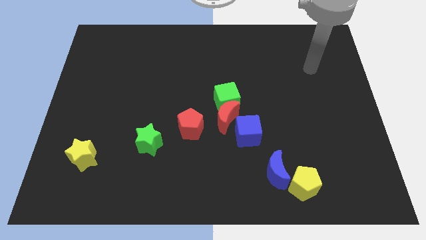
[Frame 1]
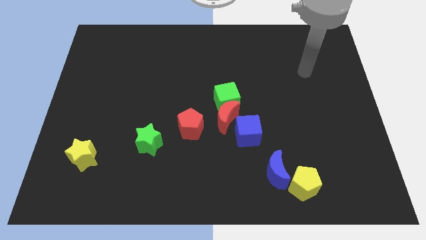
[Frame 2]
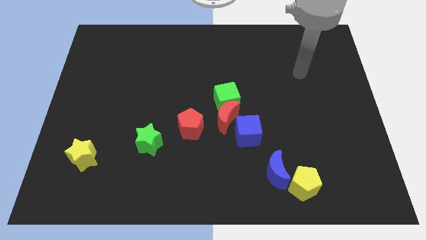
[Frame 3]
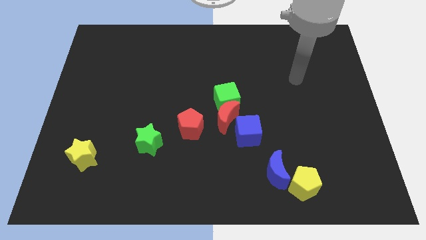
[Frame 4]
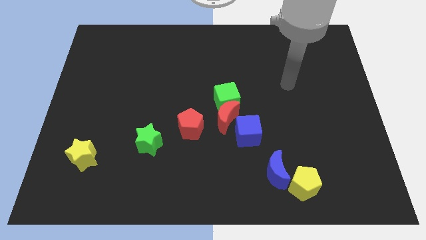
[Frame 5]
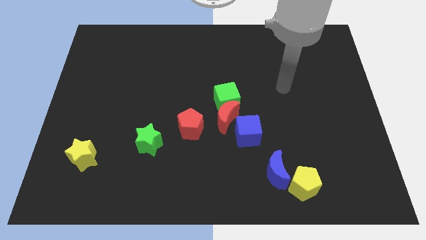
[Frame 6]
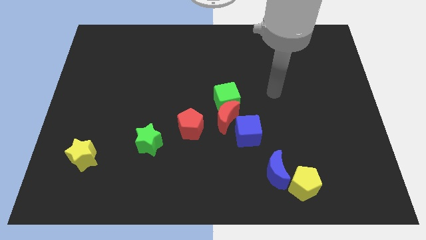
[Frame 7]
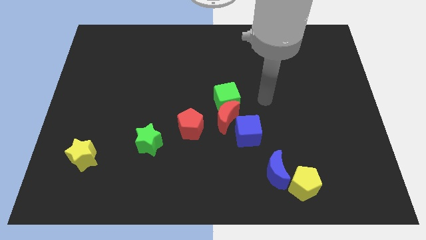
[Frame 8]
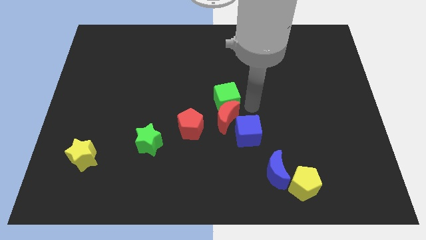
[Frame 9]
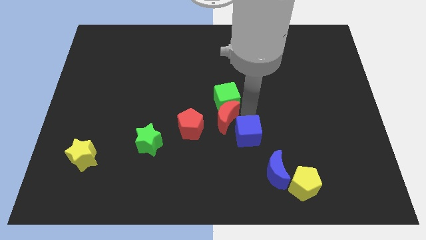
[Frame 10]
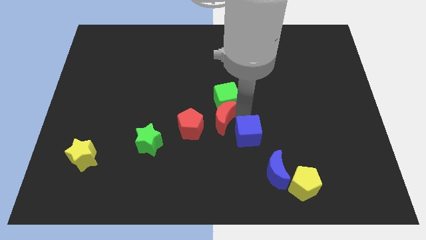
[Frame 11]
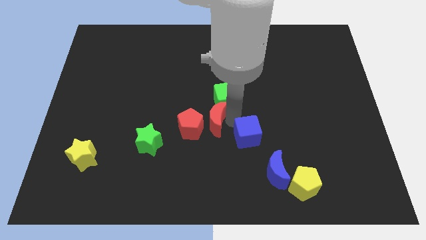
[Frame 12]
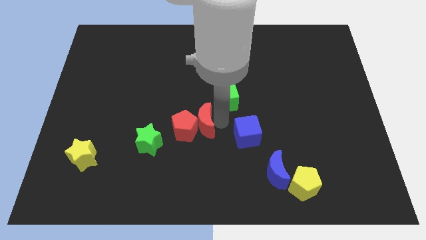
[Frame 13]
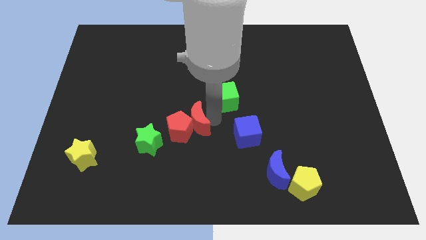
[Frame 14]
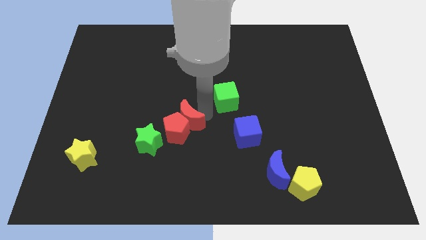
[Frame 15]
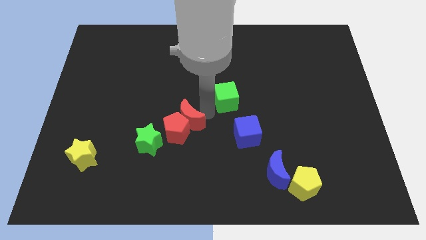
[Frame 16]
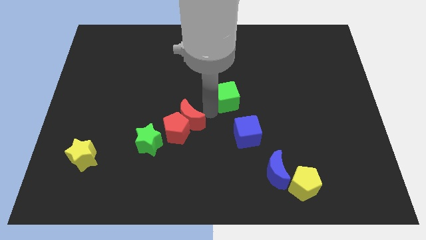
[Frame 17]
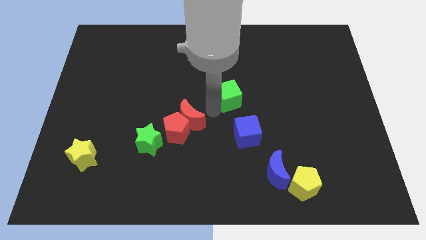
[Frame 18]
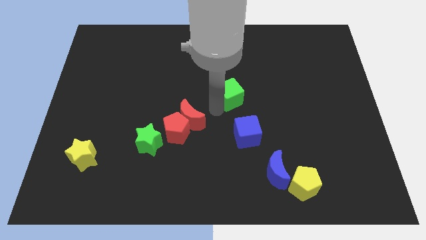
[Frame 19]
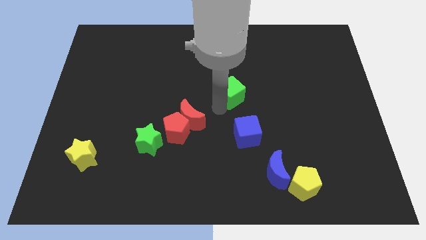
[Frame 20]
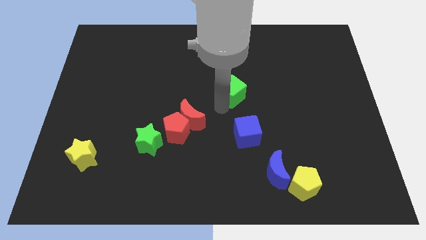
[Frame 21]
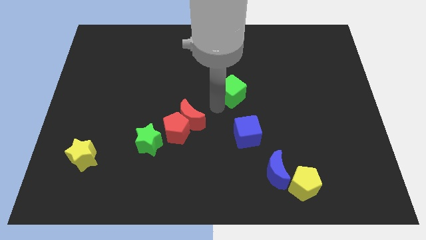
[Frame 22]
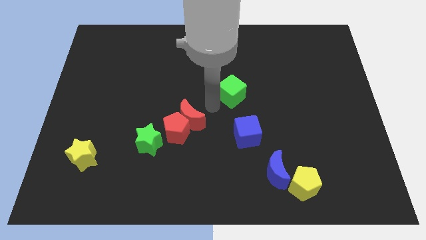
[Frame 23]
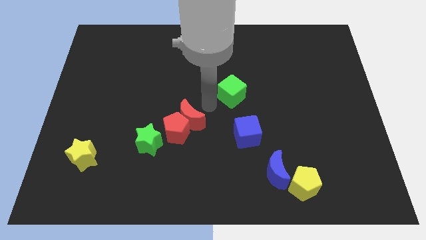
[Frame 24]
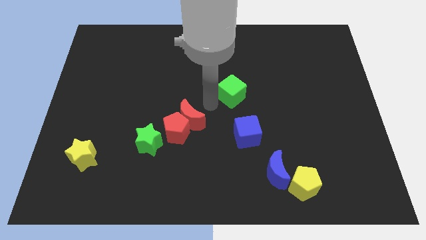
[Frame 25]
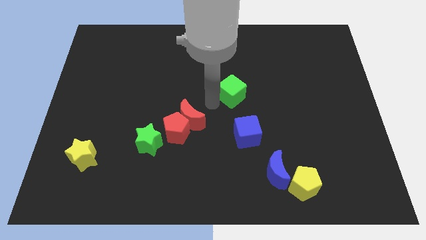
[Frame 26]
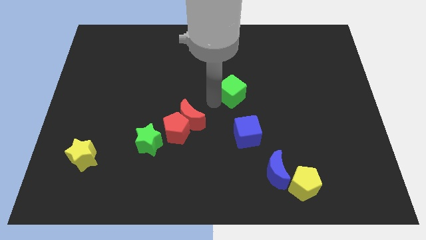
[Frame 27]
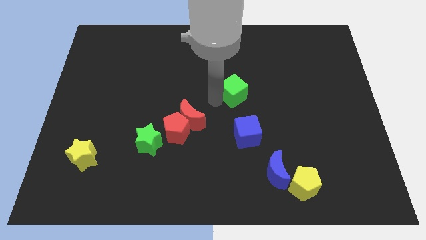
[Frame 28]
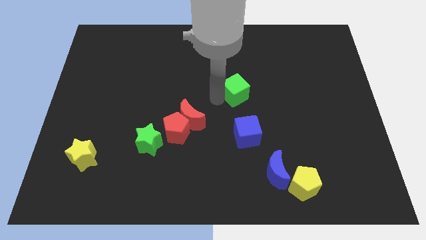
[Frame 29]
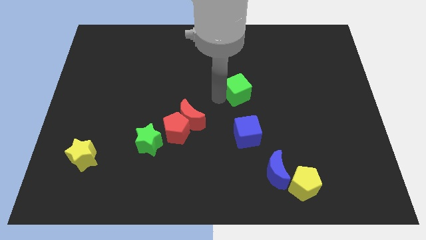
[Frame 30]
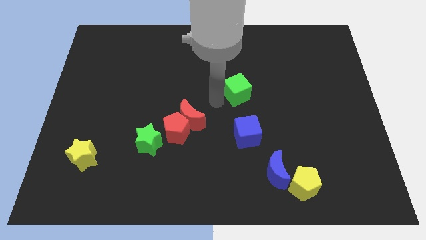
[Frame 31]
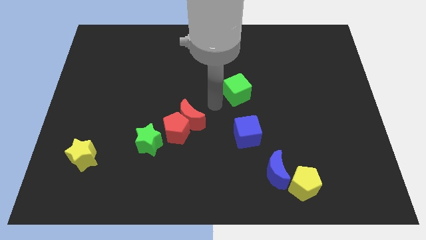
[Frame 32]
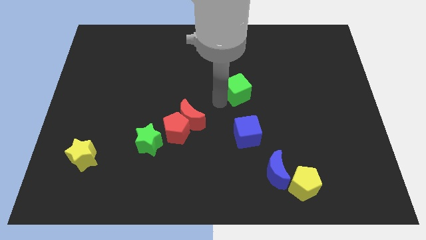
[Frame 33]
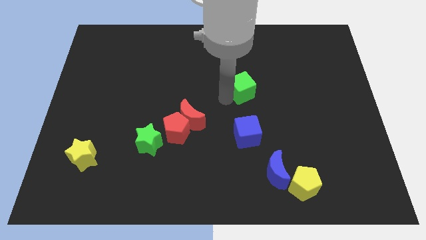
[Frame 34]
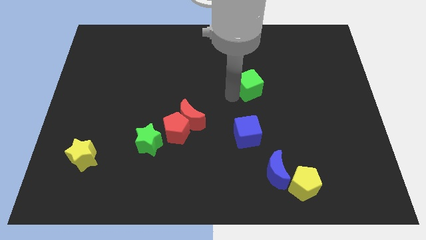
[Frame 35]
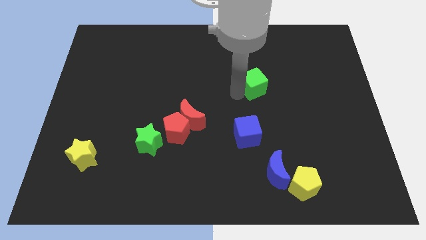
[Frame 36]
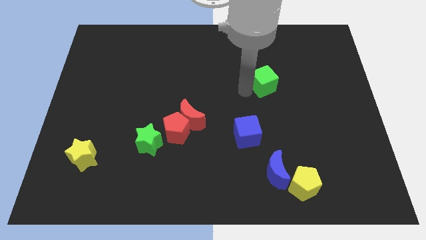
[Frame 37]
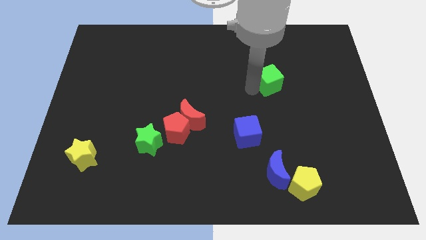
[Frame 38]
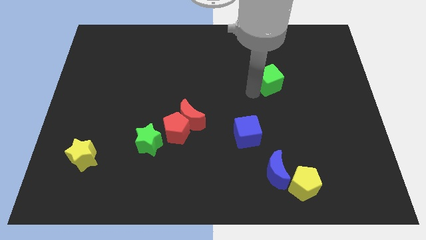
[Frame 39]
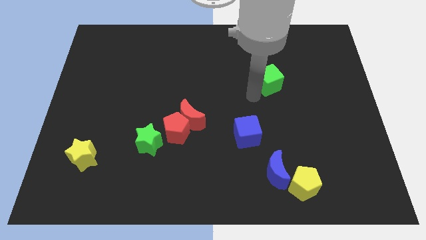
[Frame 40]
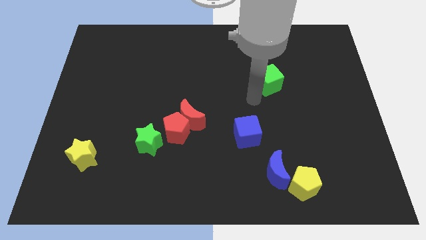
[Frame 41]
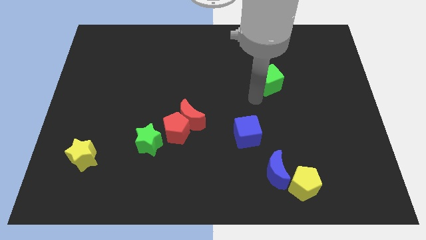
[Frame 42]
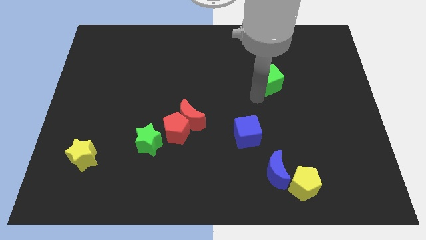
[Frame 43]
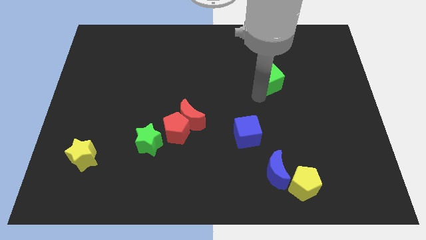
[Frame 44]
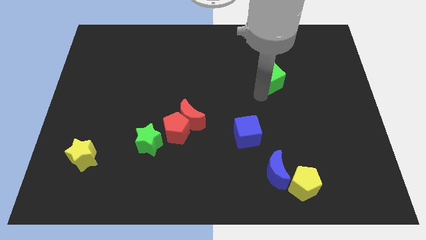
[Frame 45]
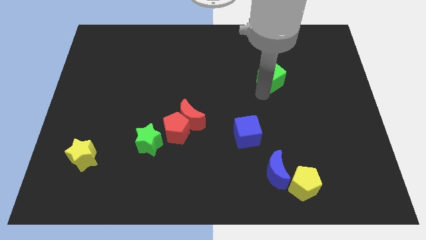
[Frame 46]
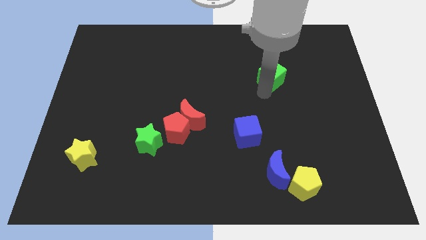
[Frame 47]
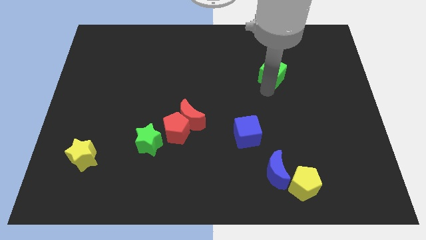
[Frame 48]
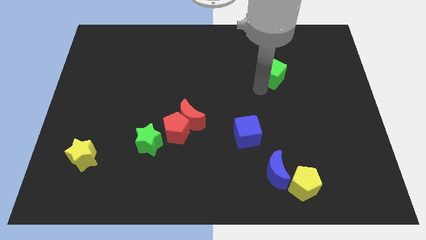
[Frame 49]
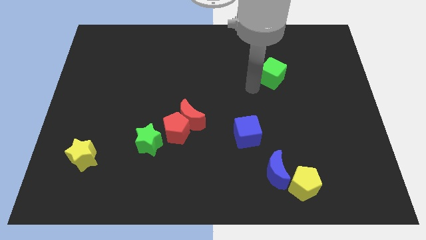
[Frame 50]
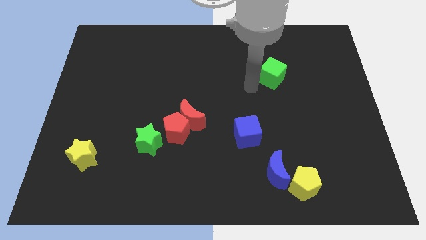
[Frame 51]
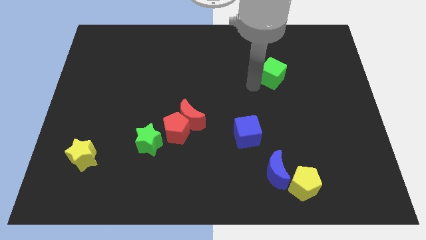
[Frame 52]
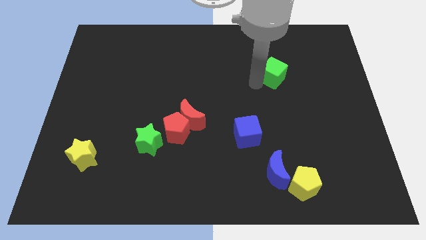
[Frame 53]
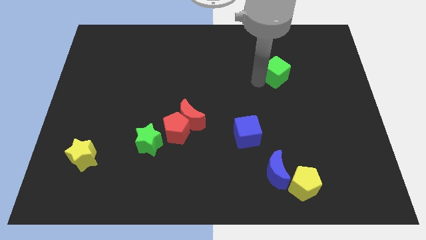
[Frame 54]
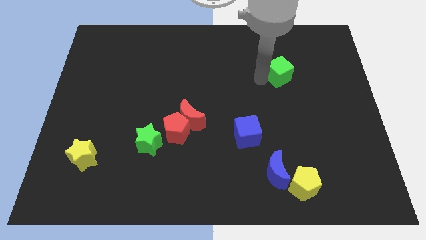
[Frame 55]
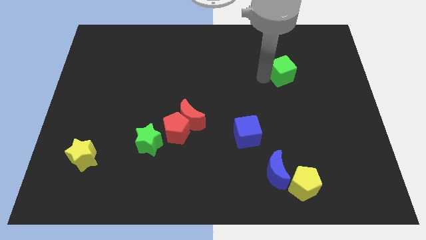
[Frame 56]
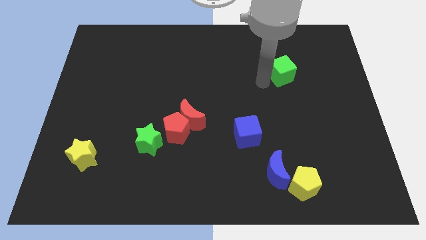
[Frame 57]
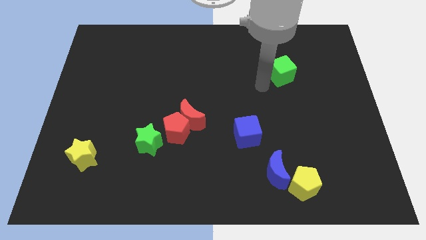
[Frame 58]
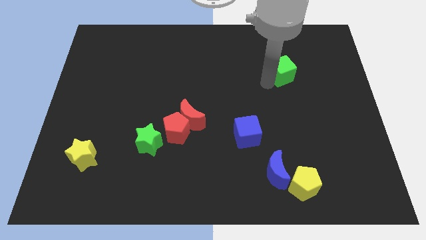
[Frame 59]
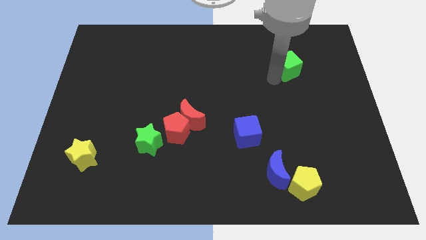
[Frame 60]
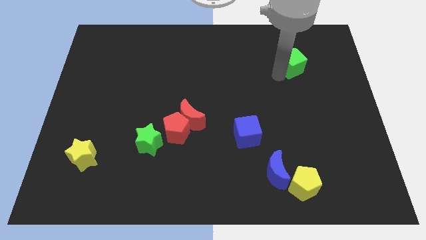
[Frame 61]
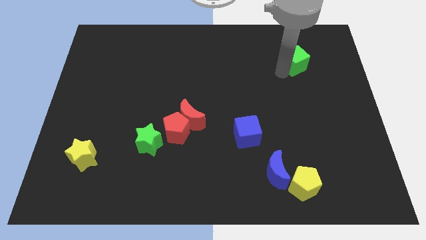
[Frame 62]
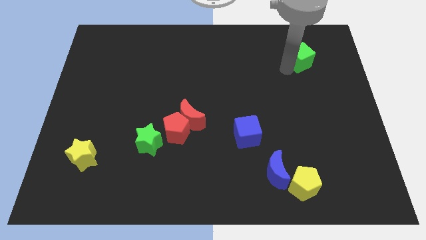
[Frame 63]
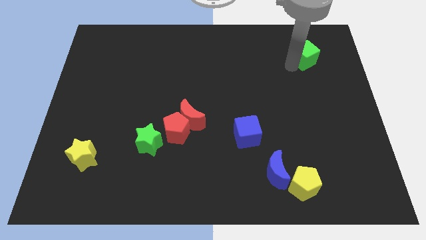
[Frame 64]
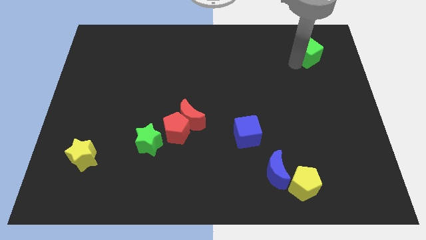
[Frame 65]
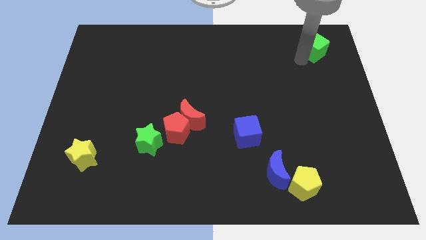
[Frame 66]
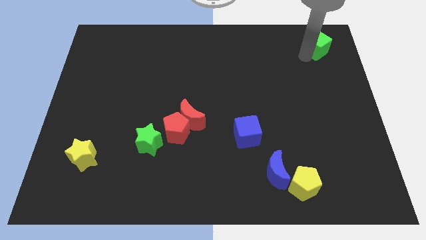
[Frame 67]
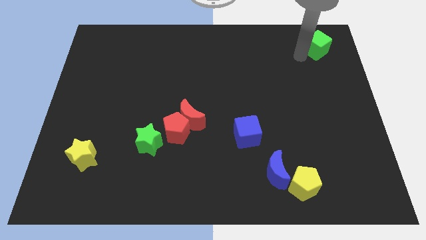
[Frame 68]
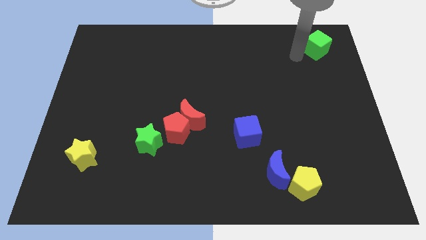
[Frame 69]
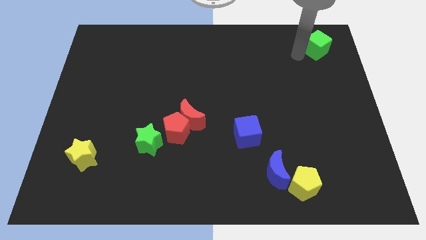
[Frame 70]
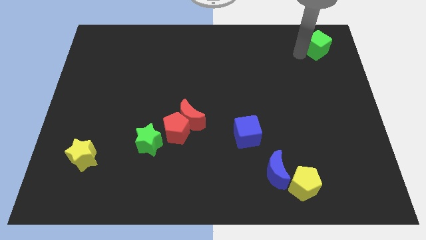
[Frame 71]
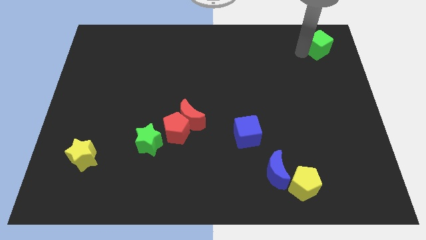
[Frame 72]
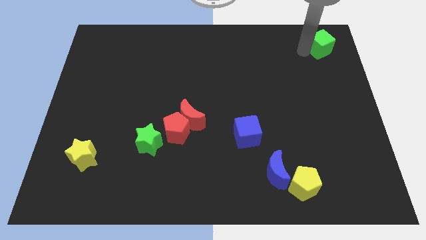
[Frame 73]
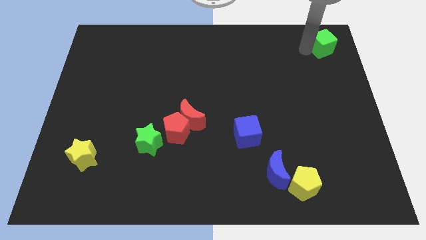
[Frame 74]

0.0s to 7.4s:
move the green cube to the upper right corner
